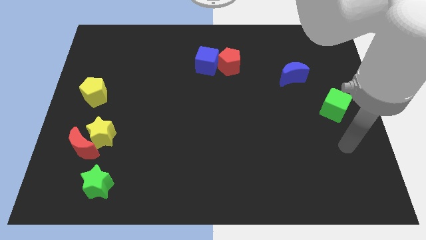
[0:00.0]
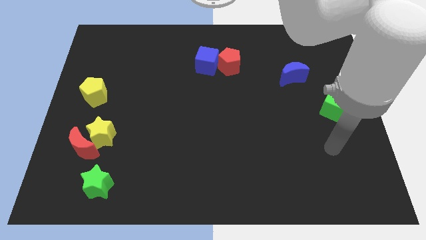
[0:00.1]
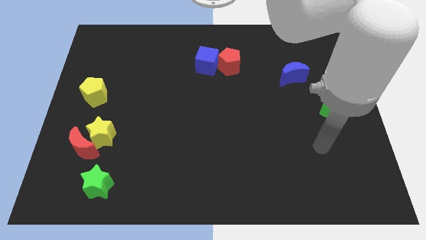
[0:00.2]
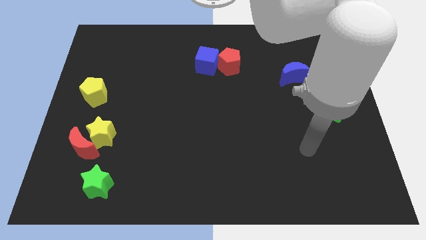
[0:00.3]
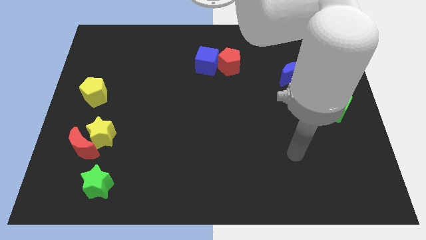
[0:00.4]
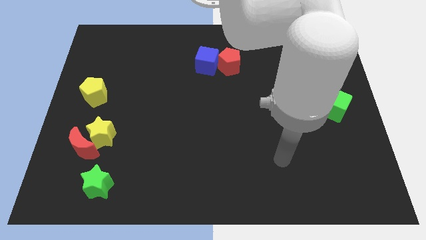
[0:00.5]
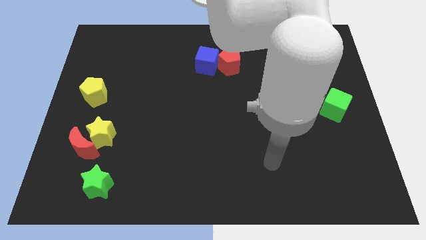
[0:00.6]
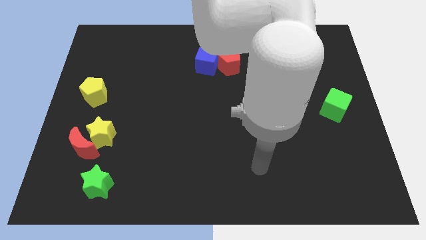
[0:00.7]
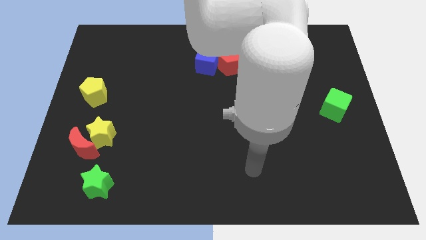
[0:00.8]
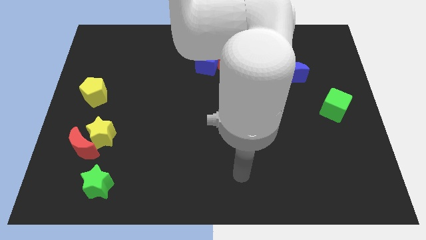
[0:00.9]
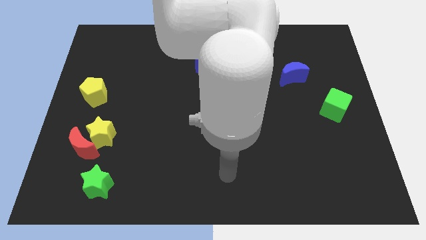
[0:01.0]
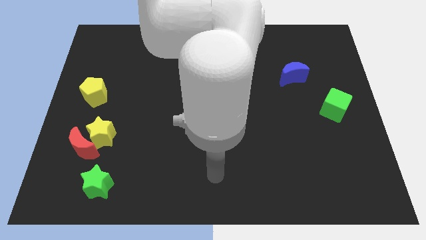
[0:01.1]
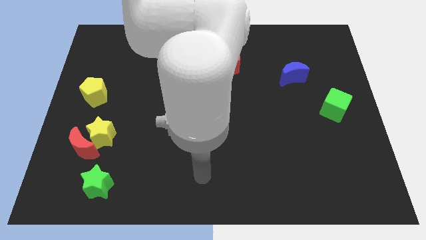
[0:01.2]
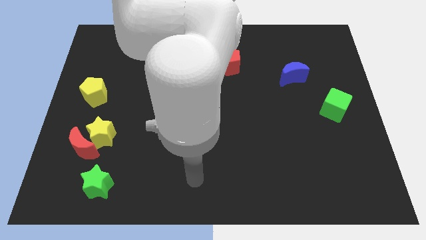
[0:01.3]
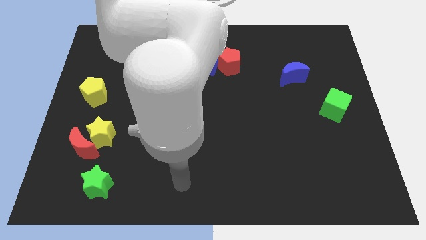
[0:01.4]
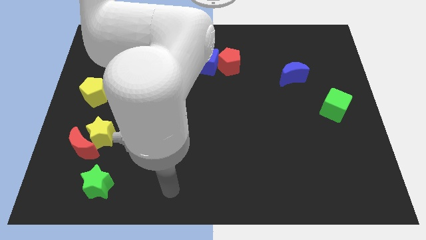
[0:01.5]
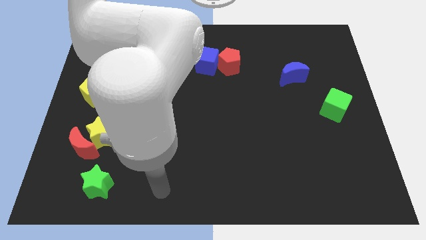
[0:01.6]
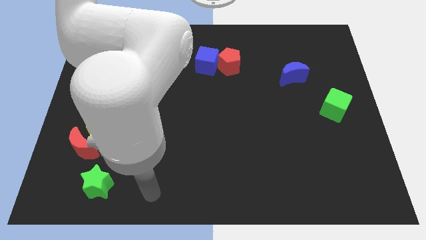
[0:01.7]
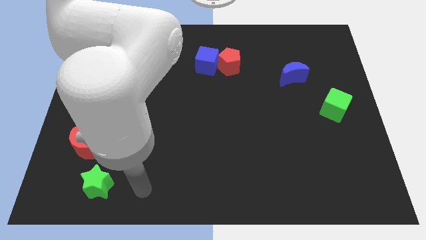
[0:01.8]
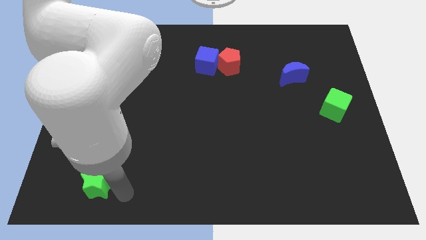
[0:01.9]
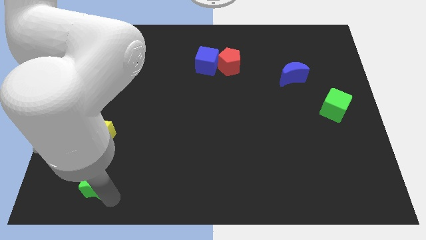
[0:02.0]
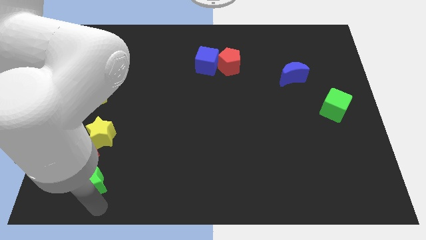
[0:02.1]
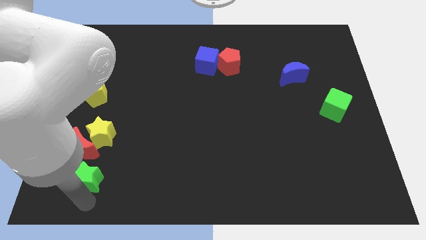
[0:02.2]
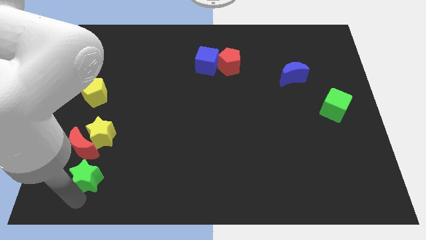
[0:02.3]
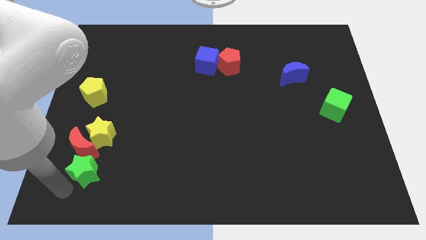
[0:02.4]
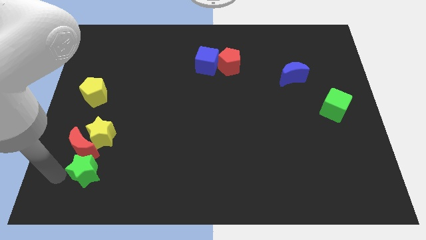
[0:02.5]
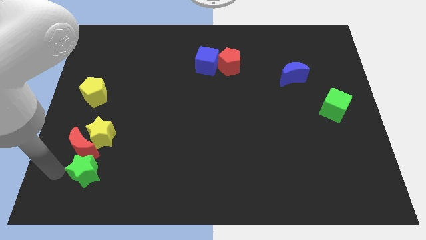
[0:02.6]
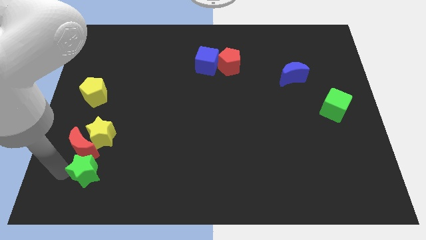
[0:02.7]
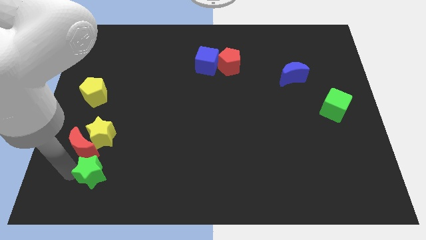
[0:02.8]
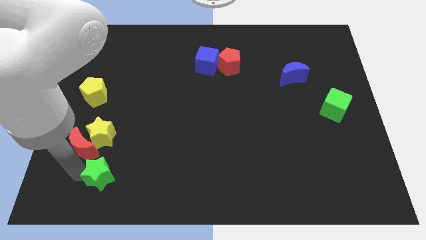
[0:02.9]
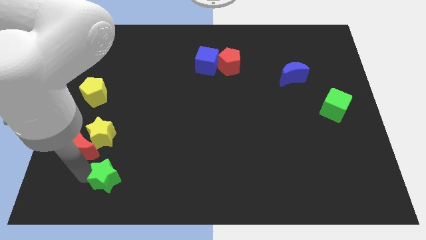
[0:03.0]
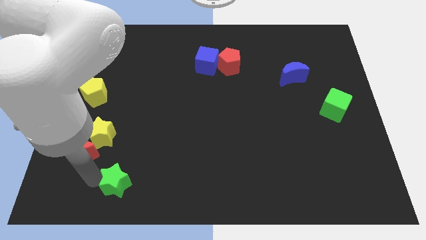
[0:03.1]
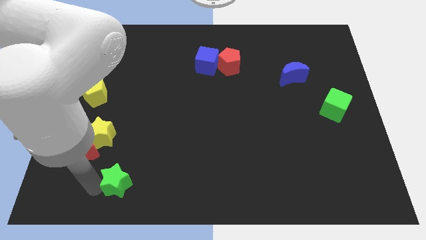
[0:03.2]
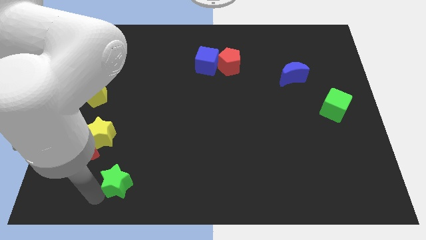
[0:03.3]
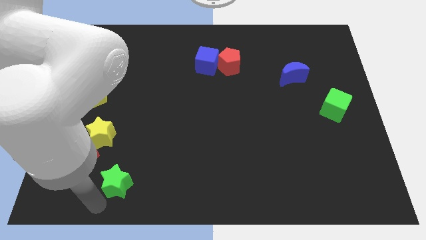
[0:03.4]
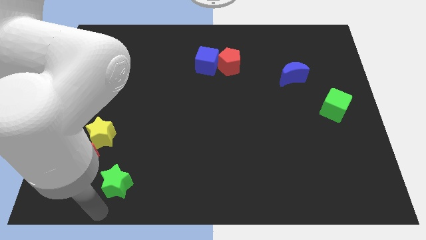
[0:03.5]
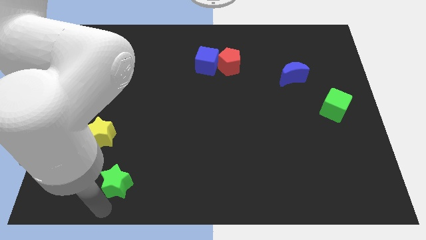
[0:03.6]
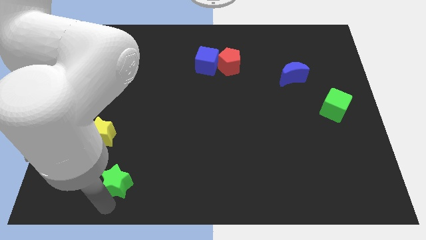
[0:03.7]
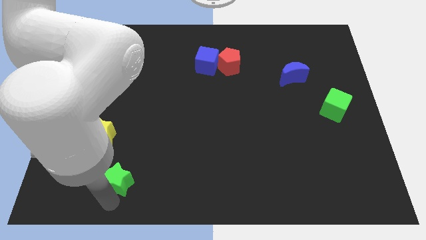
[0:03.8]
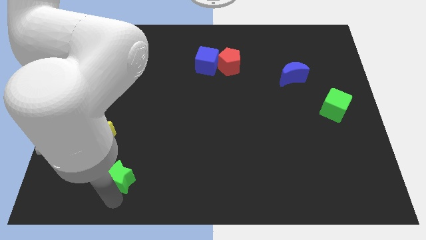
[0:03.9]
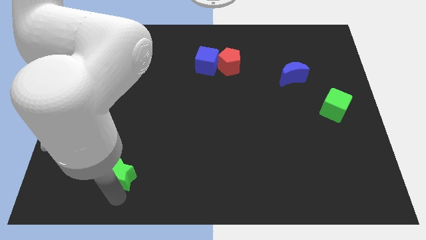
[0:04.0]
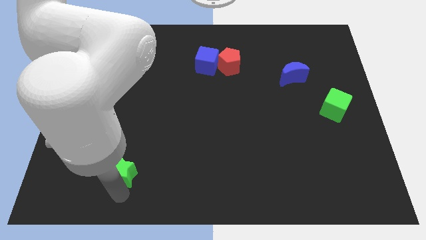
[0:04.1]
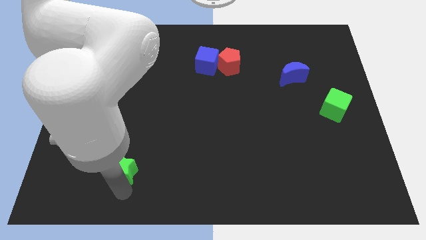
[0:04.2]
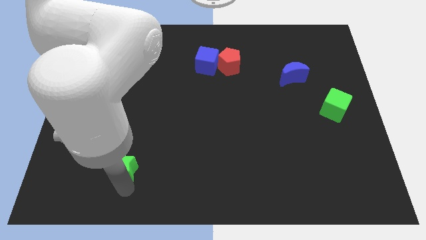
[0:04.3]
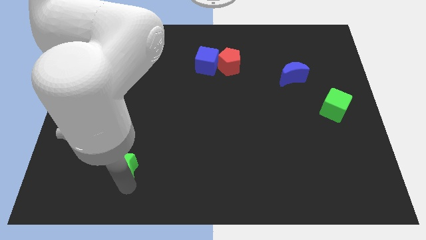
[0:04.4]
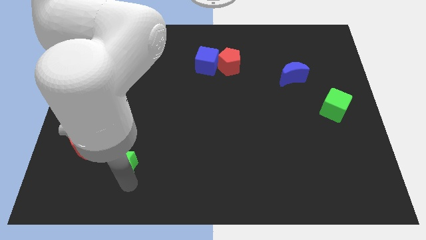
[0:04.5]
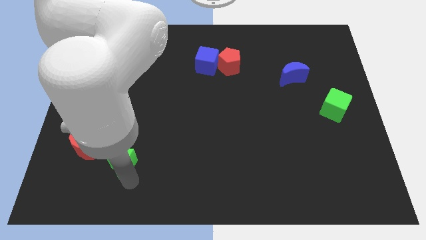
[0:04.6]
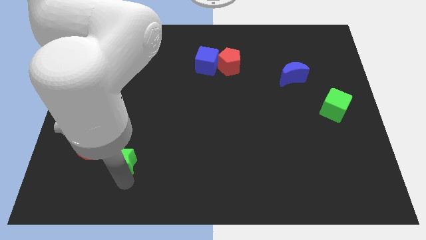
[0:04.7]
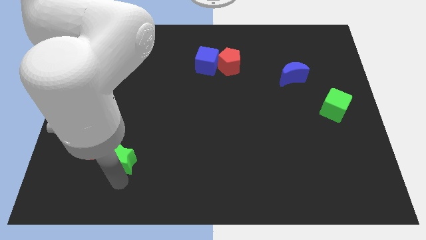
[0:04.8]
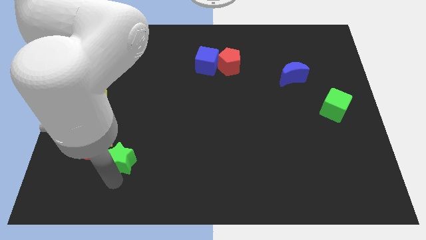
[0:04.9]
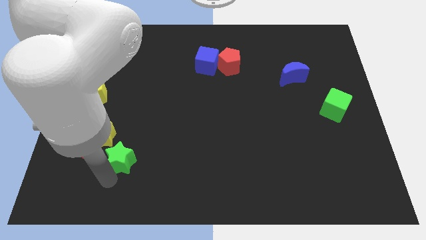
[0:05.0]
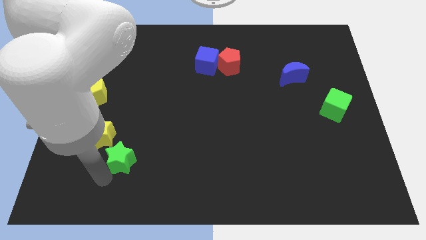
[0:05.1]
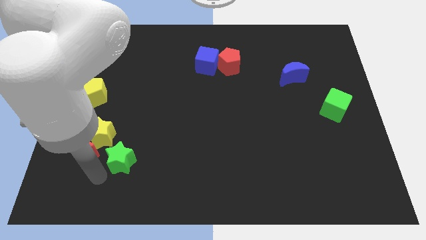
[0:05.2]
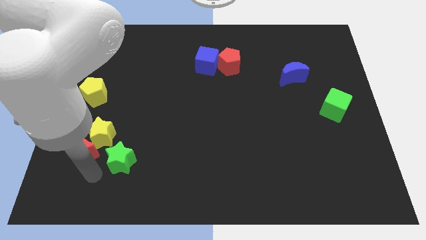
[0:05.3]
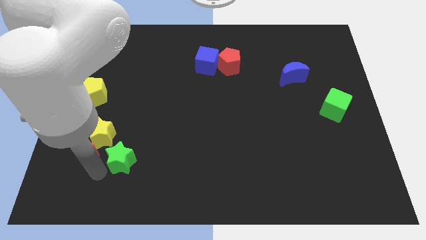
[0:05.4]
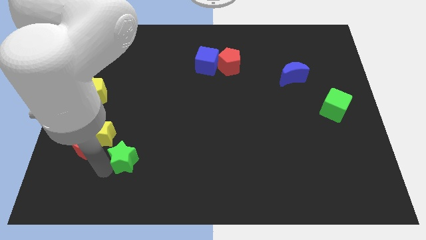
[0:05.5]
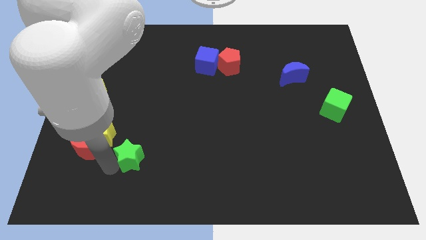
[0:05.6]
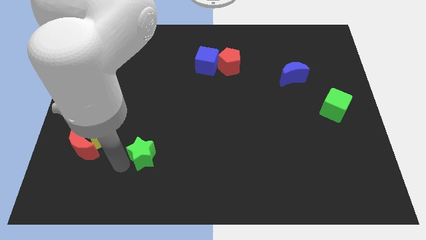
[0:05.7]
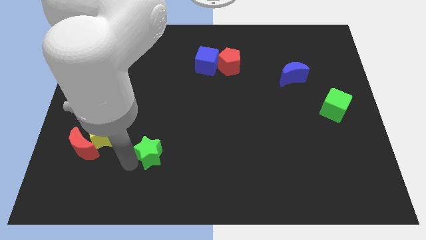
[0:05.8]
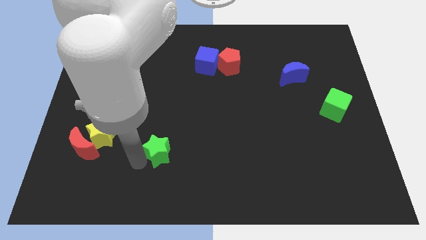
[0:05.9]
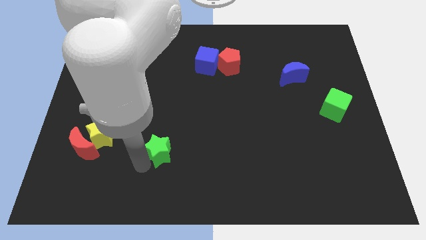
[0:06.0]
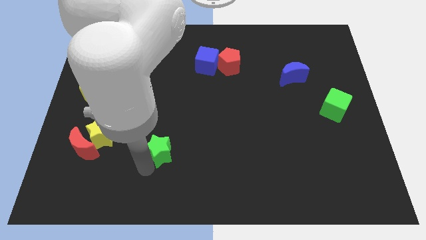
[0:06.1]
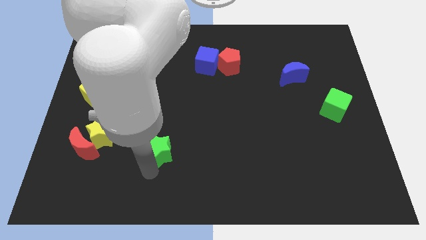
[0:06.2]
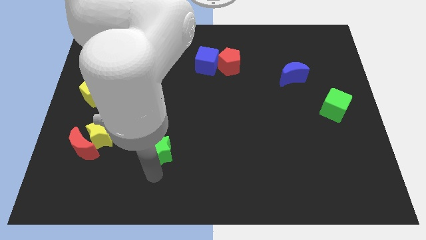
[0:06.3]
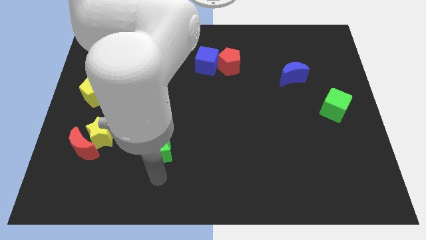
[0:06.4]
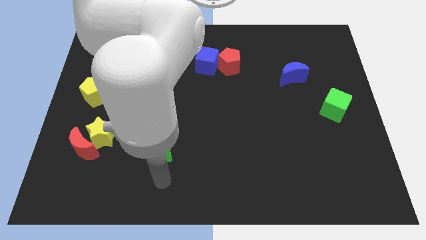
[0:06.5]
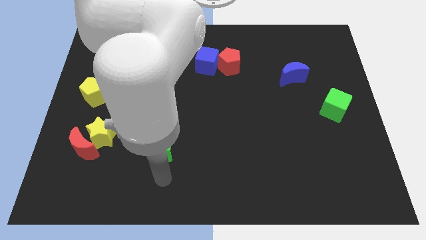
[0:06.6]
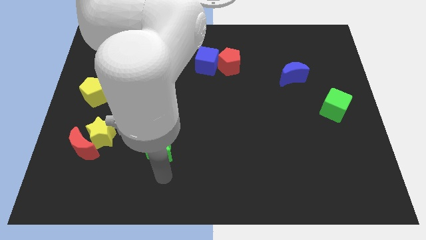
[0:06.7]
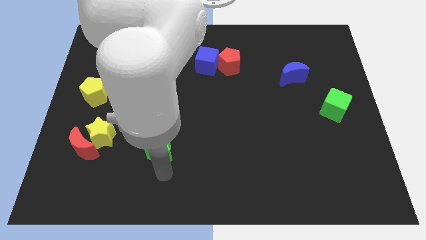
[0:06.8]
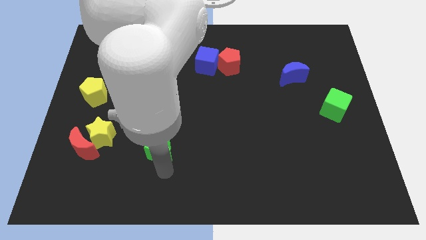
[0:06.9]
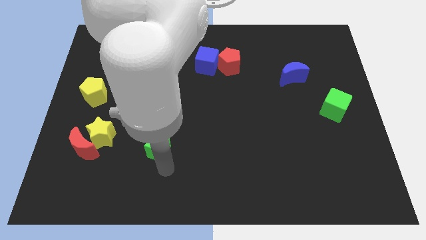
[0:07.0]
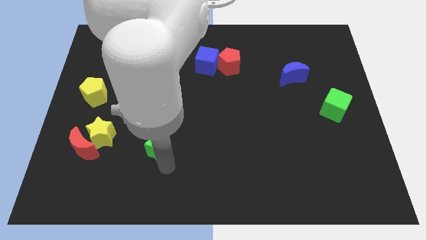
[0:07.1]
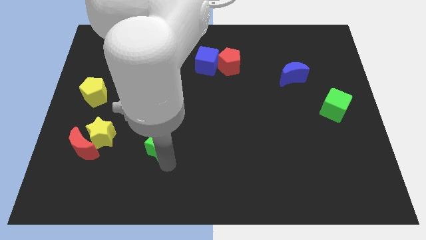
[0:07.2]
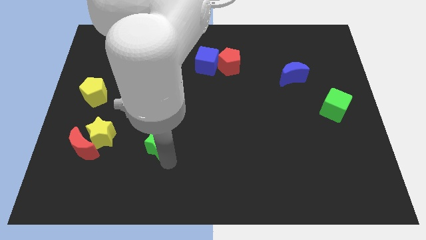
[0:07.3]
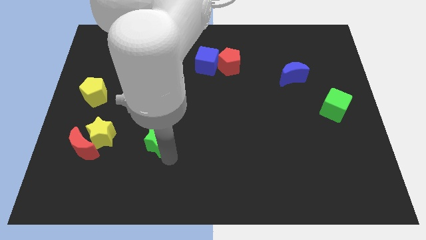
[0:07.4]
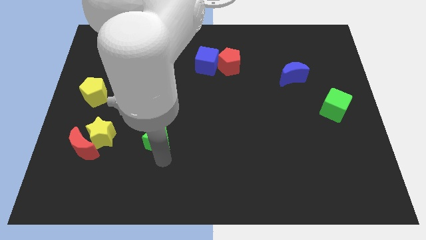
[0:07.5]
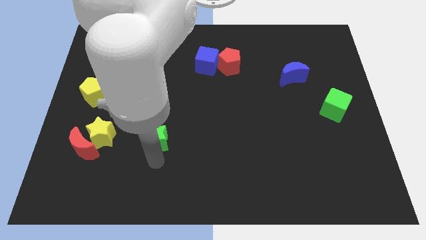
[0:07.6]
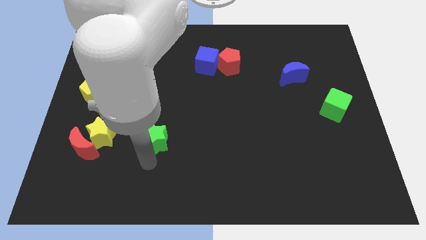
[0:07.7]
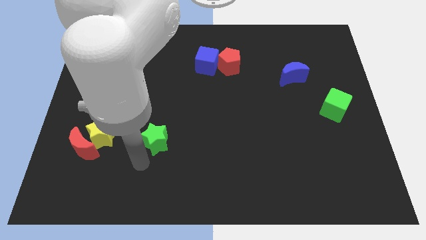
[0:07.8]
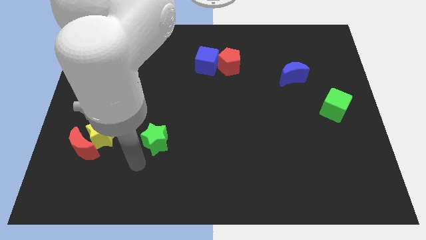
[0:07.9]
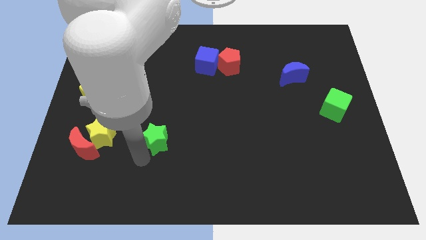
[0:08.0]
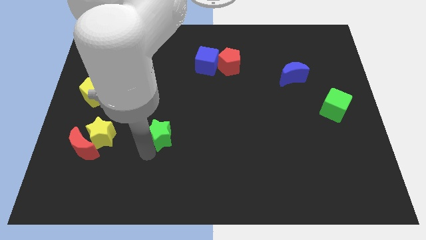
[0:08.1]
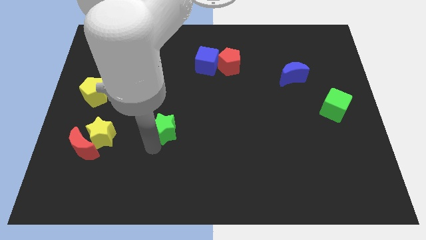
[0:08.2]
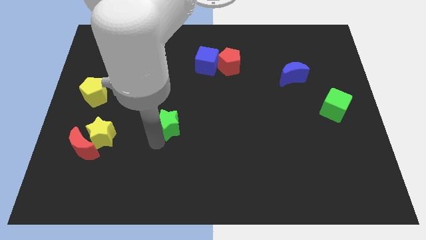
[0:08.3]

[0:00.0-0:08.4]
push the green star to the center of the board
